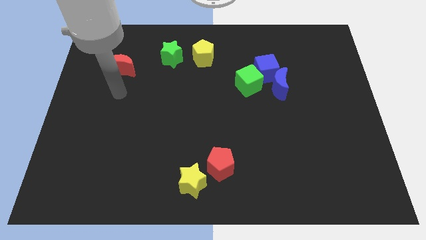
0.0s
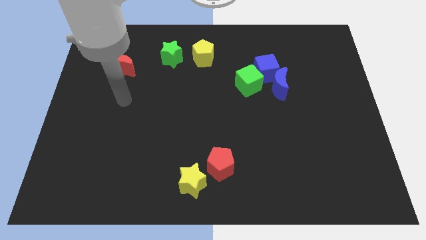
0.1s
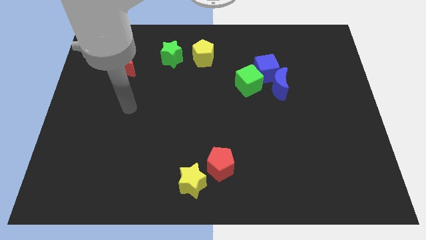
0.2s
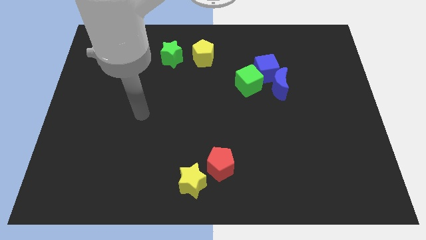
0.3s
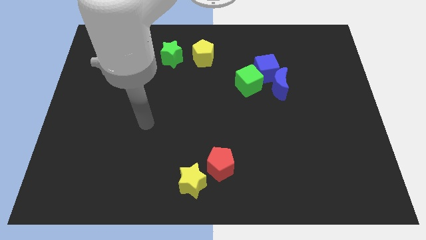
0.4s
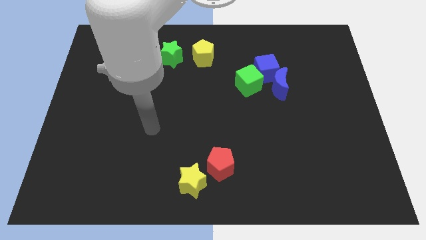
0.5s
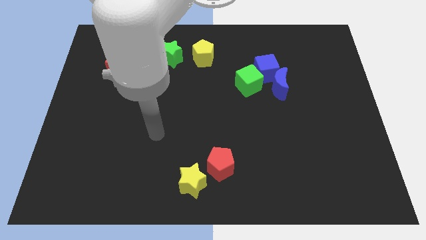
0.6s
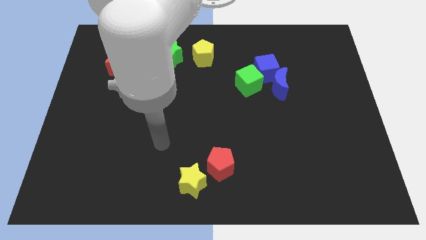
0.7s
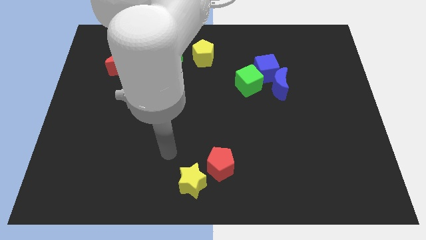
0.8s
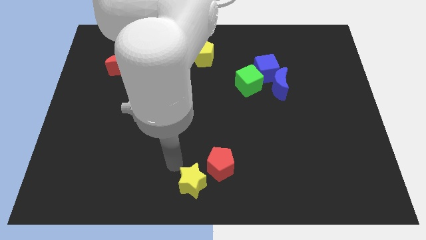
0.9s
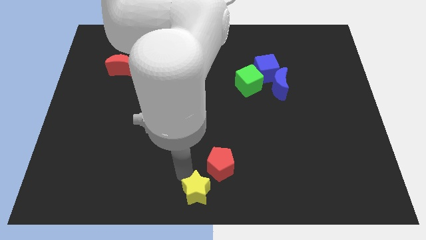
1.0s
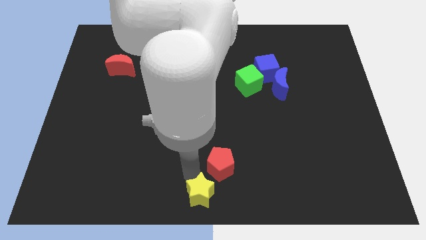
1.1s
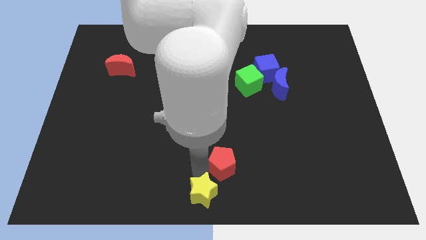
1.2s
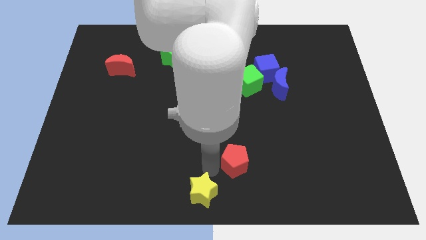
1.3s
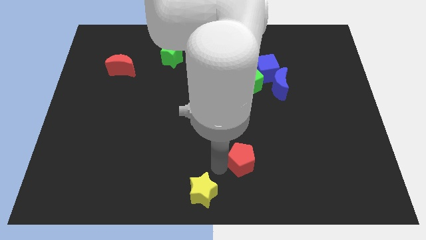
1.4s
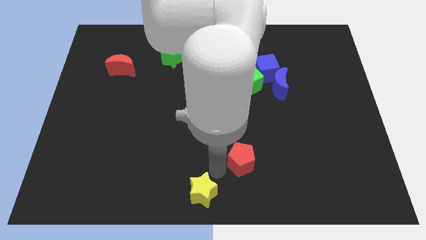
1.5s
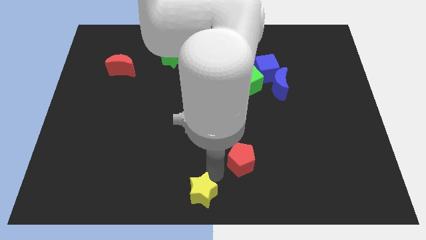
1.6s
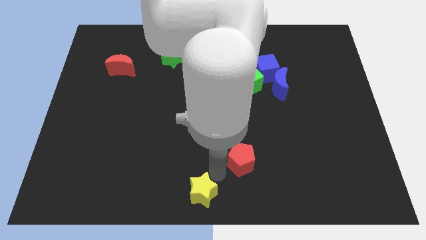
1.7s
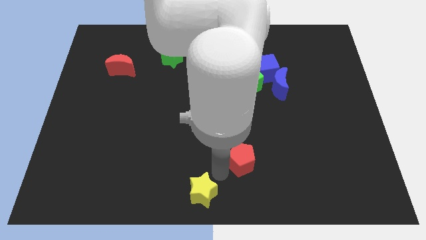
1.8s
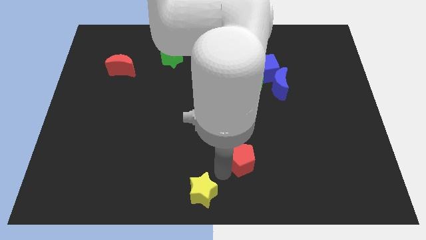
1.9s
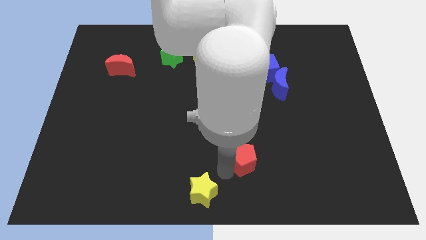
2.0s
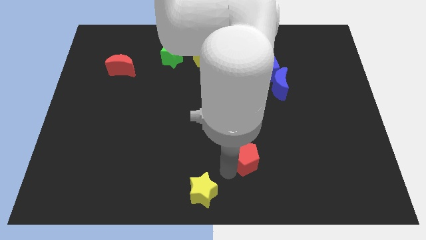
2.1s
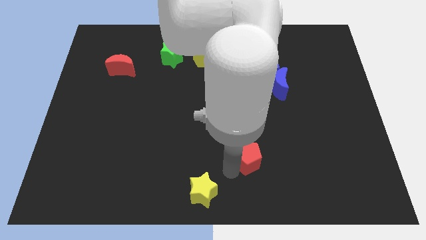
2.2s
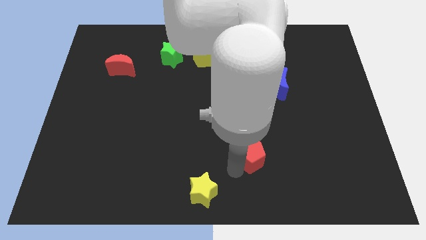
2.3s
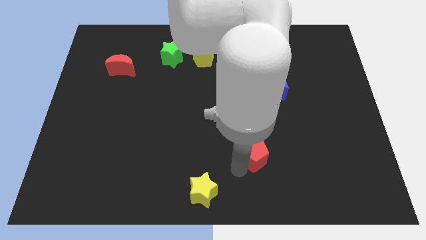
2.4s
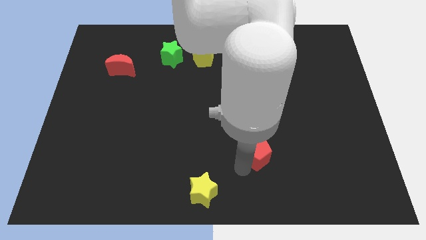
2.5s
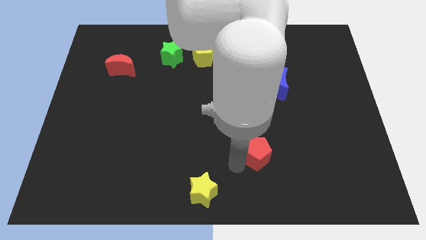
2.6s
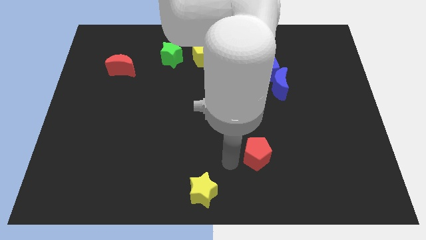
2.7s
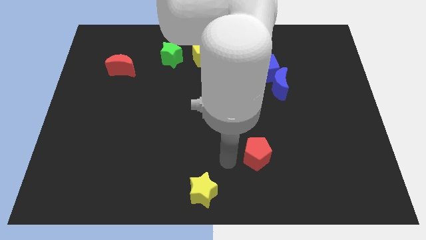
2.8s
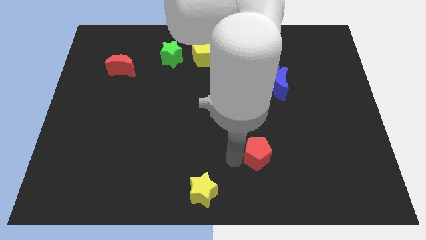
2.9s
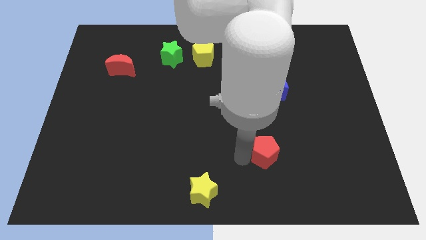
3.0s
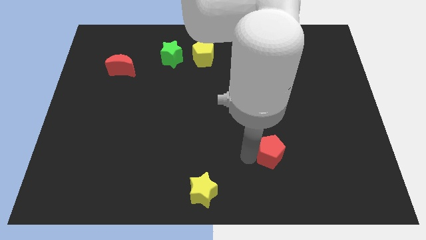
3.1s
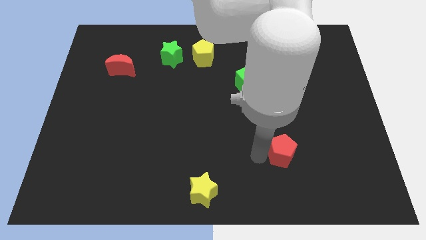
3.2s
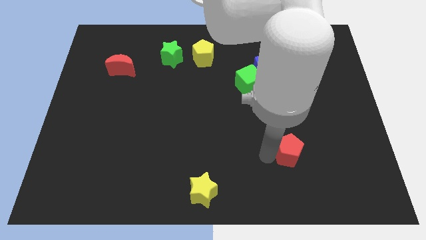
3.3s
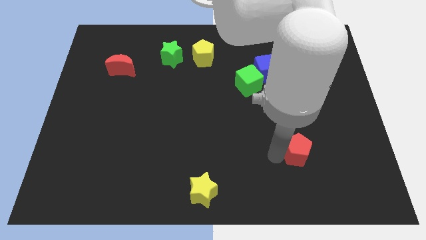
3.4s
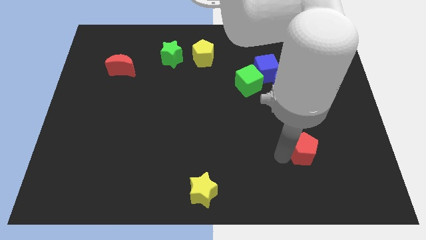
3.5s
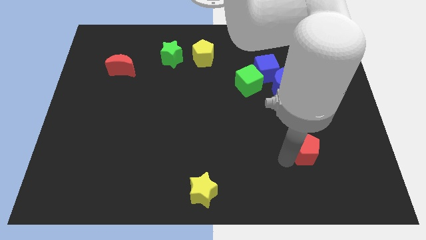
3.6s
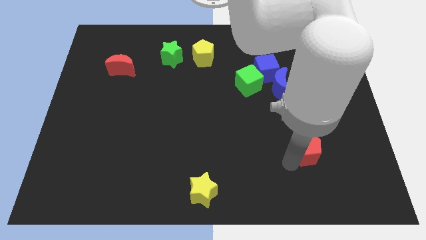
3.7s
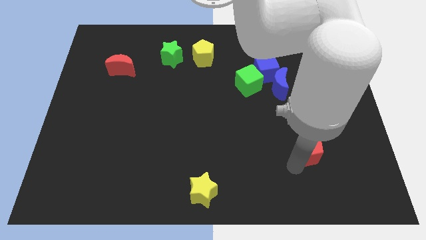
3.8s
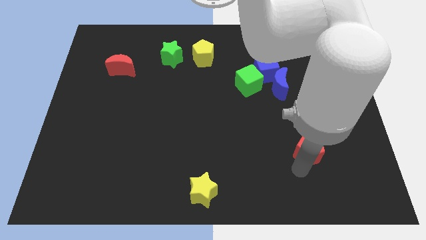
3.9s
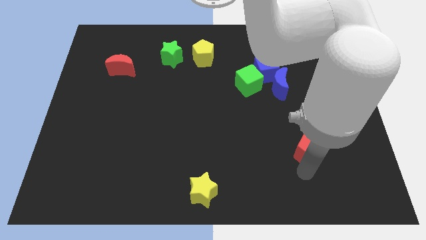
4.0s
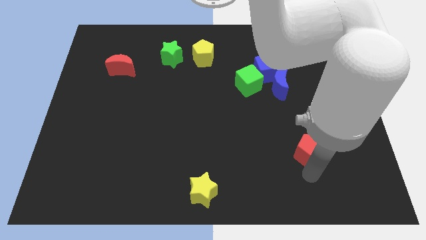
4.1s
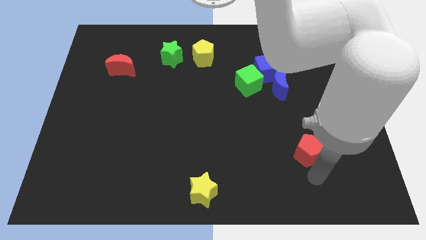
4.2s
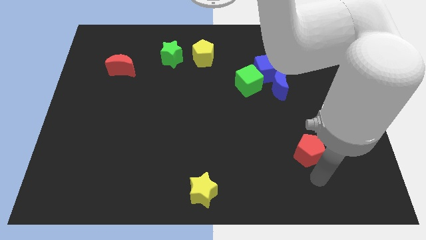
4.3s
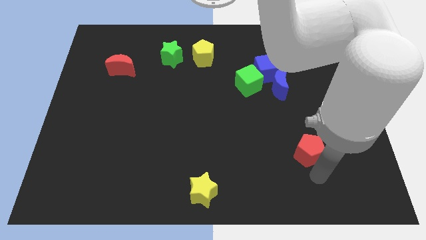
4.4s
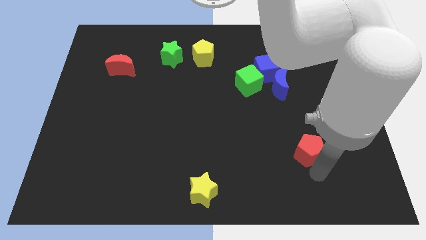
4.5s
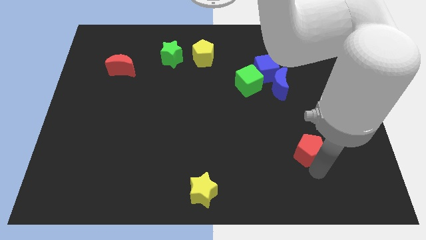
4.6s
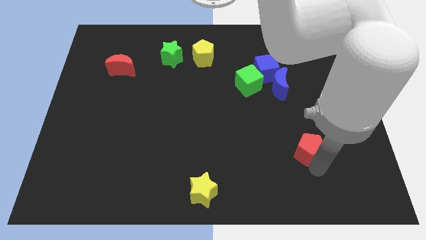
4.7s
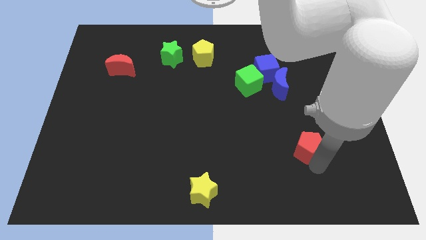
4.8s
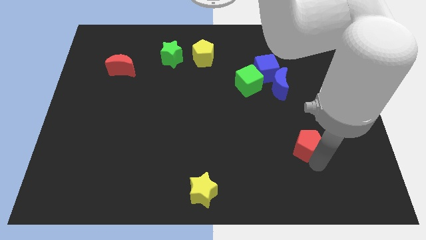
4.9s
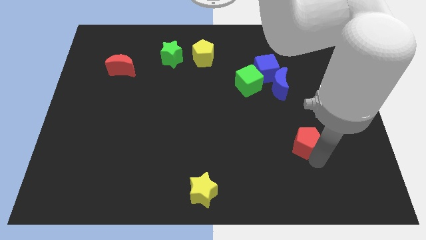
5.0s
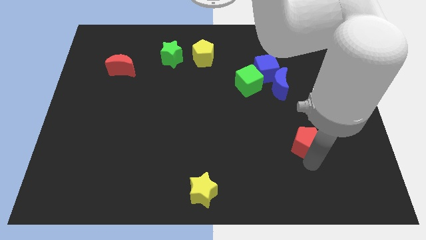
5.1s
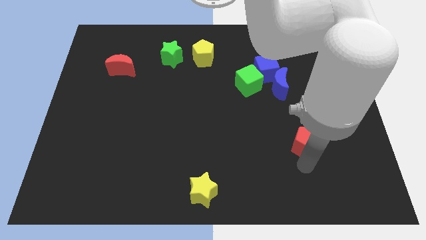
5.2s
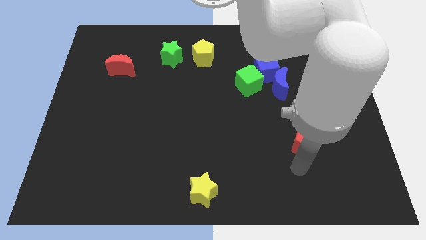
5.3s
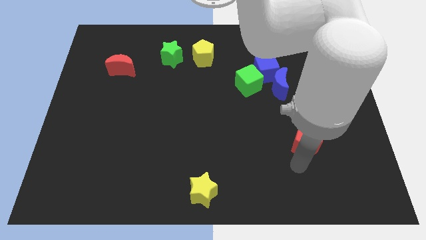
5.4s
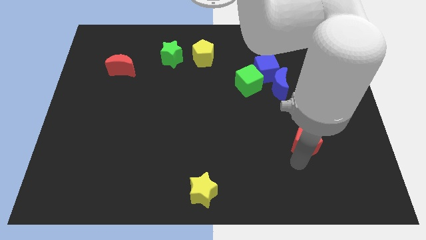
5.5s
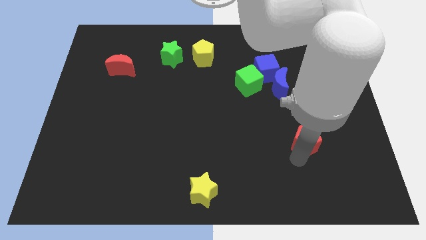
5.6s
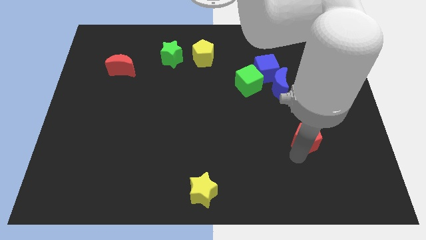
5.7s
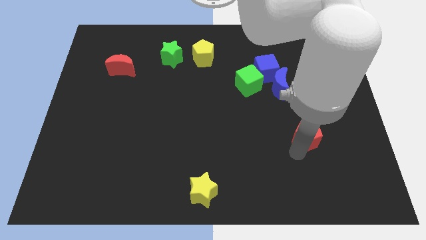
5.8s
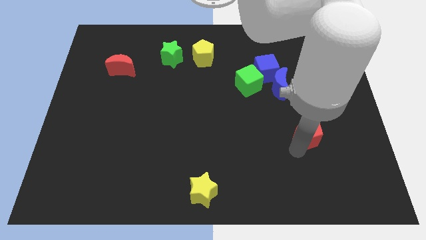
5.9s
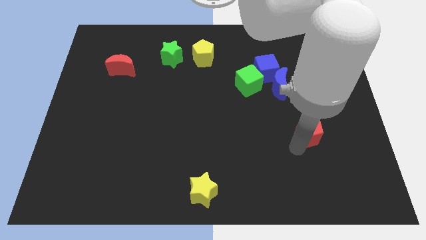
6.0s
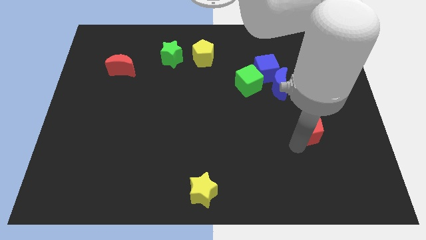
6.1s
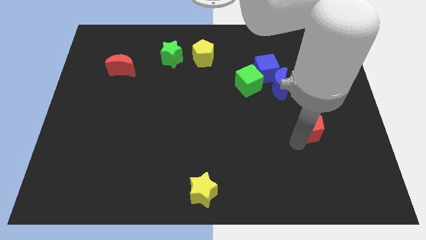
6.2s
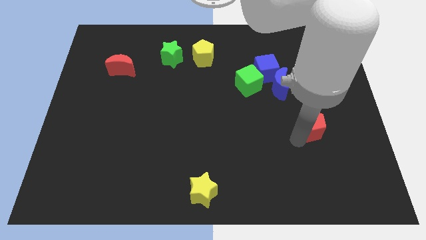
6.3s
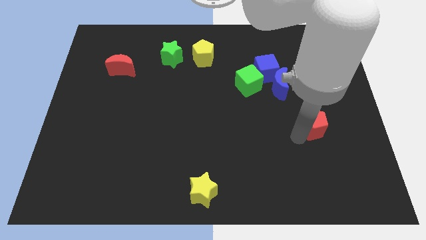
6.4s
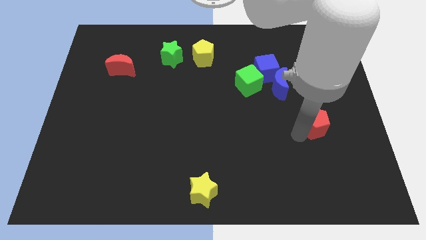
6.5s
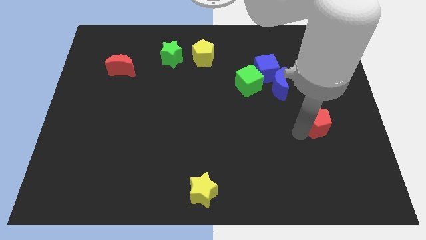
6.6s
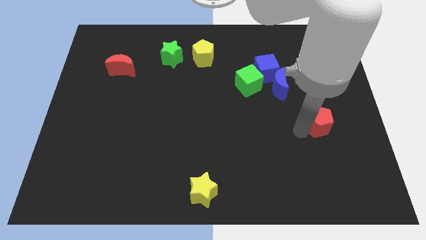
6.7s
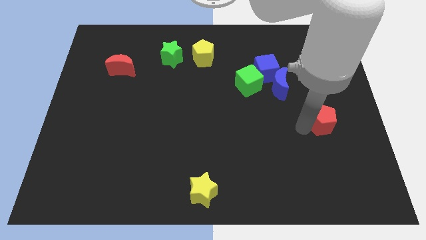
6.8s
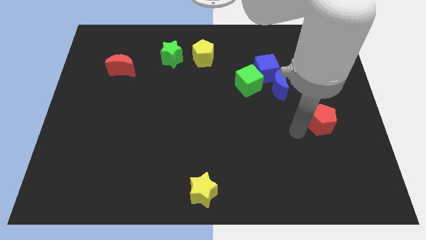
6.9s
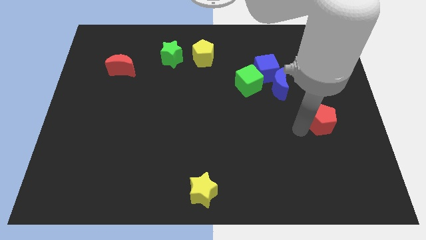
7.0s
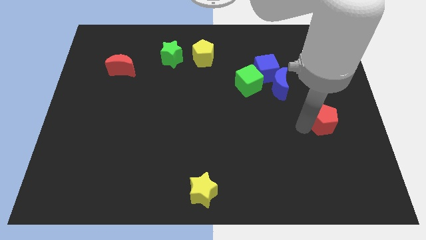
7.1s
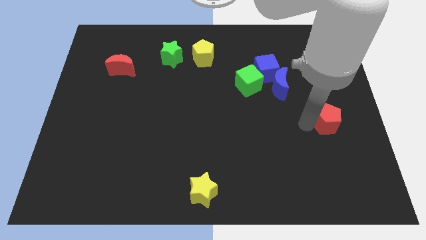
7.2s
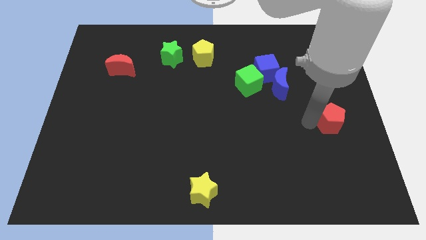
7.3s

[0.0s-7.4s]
put the red pentagon to the right side
